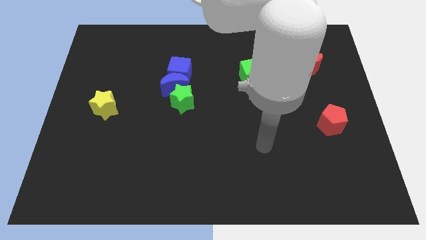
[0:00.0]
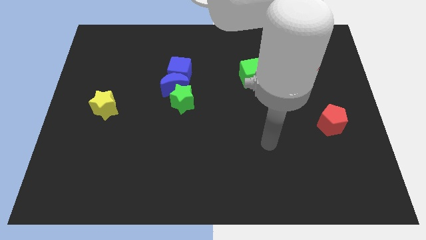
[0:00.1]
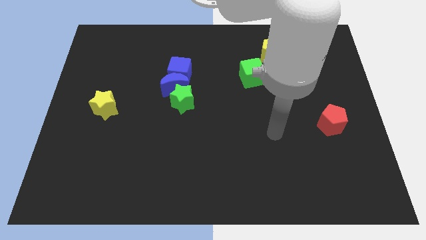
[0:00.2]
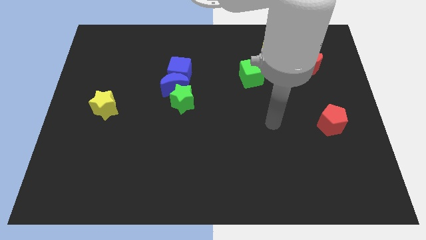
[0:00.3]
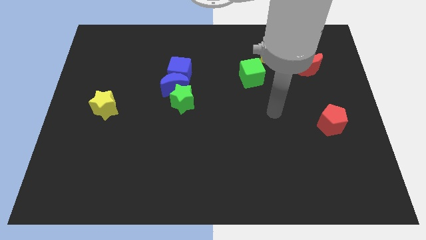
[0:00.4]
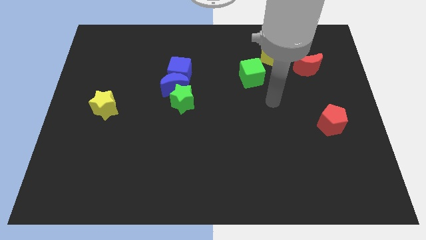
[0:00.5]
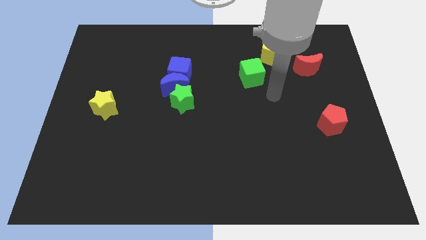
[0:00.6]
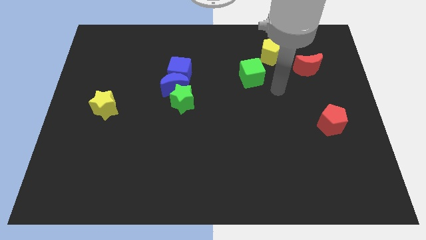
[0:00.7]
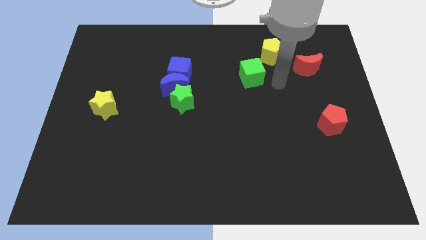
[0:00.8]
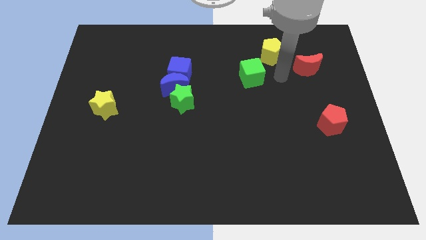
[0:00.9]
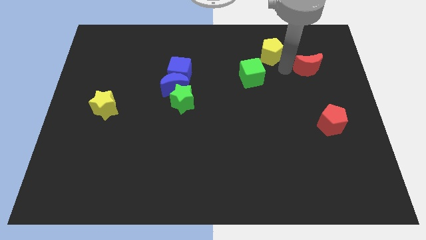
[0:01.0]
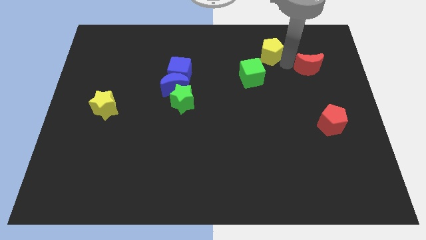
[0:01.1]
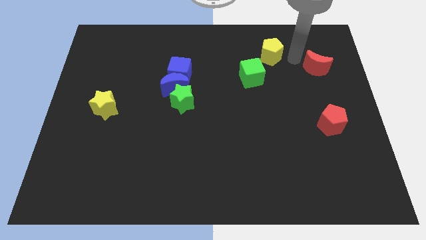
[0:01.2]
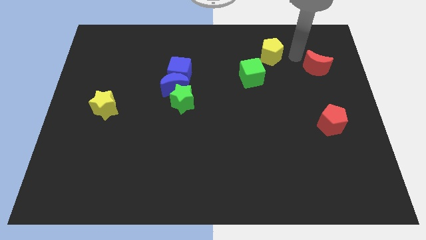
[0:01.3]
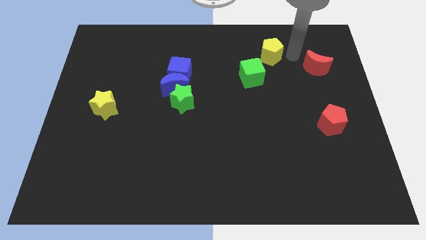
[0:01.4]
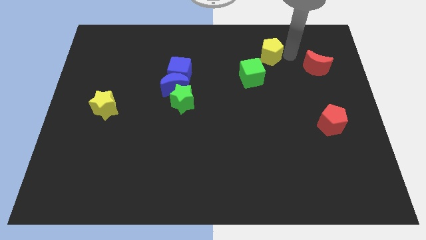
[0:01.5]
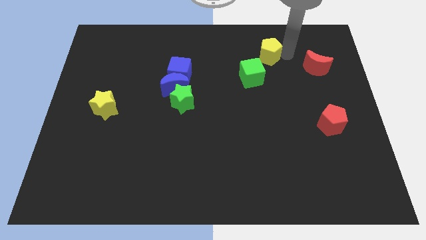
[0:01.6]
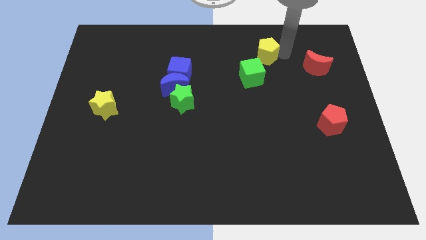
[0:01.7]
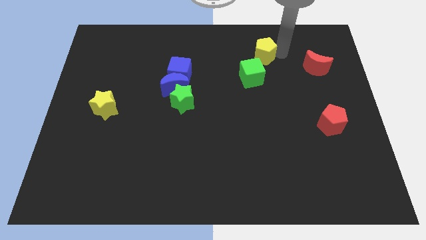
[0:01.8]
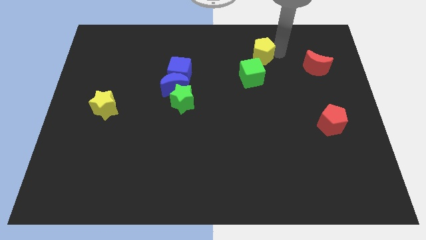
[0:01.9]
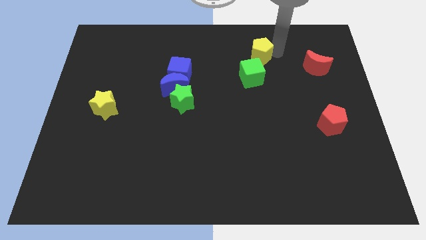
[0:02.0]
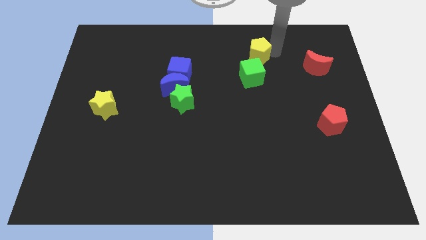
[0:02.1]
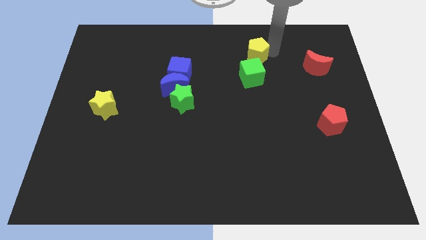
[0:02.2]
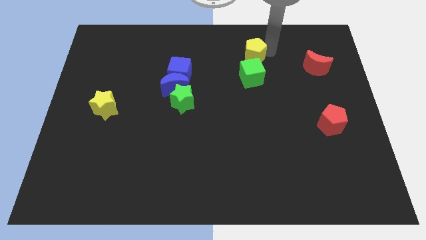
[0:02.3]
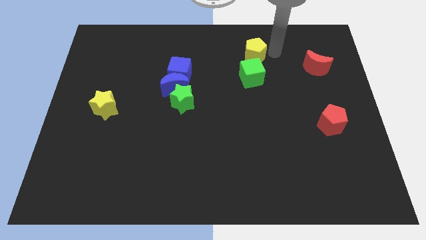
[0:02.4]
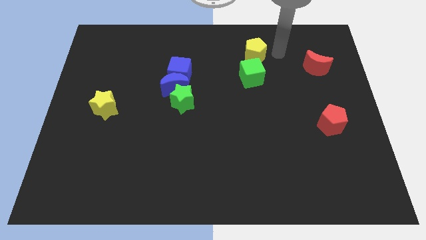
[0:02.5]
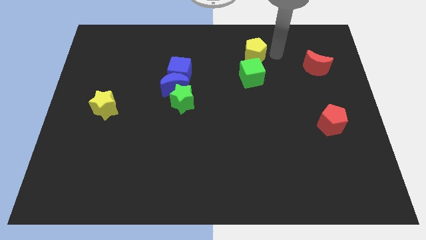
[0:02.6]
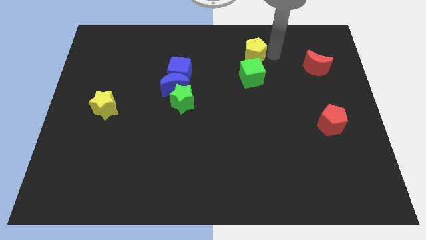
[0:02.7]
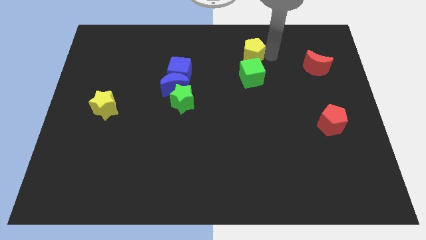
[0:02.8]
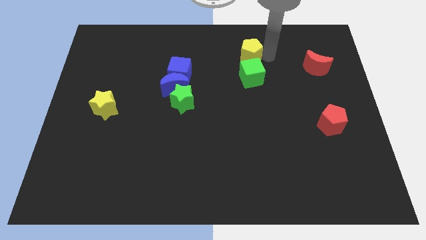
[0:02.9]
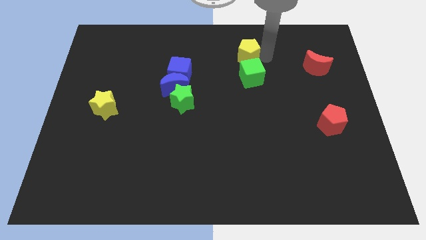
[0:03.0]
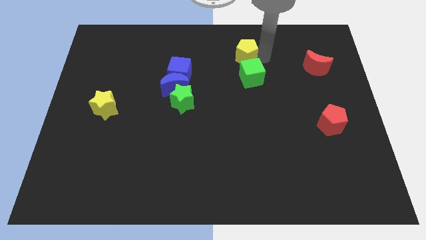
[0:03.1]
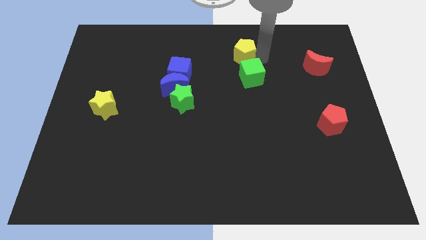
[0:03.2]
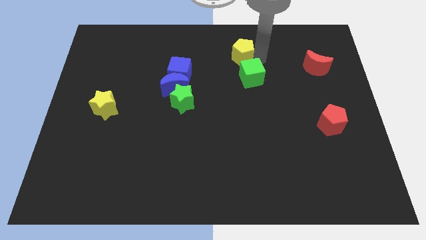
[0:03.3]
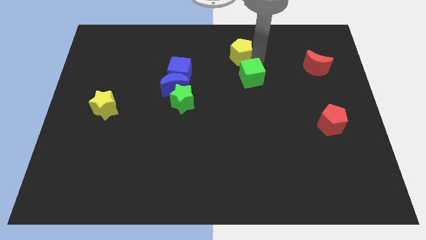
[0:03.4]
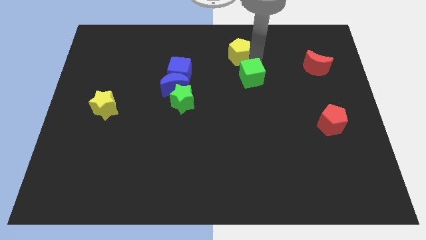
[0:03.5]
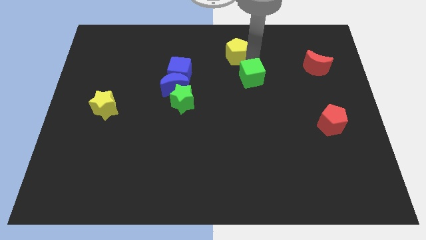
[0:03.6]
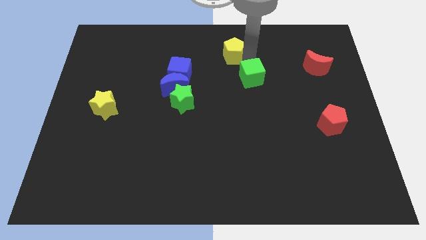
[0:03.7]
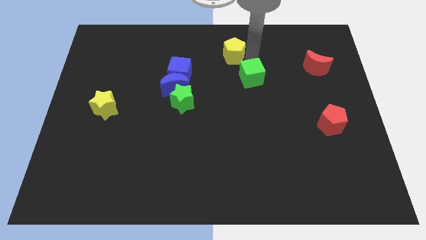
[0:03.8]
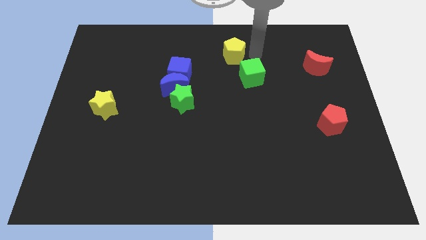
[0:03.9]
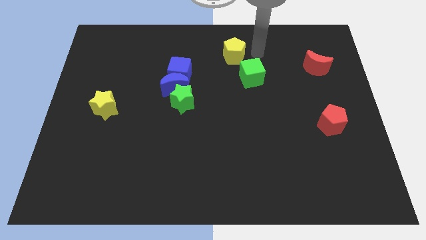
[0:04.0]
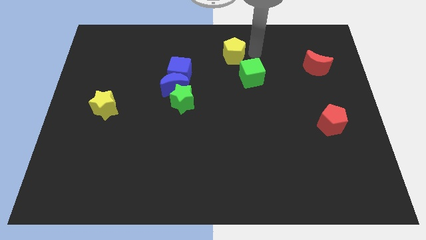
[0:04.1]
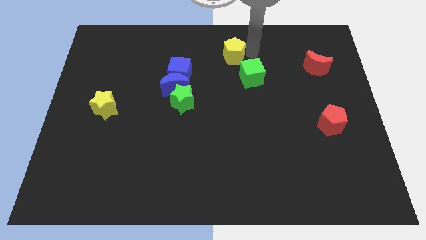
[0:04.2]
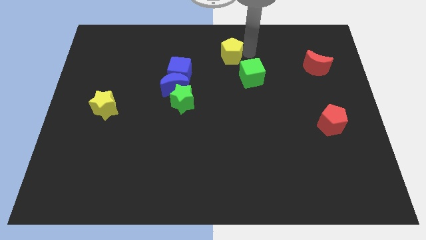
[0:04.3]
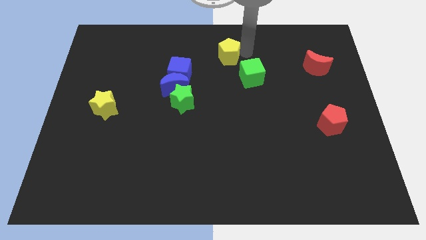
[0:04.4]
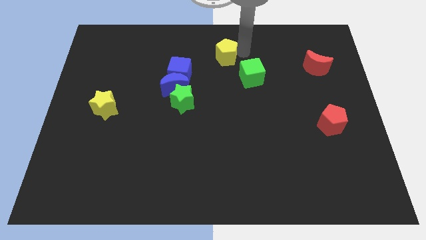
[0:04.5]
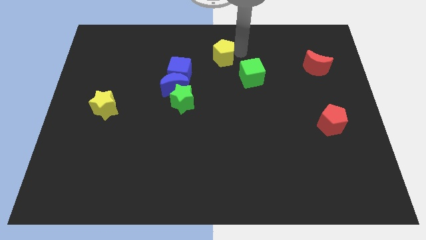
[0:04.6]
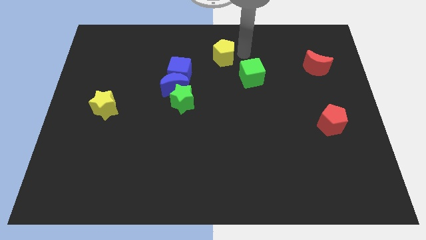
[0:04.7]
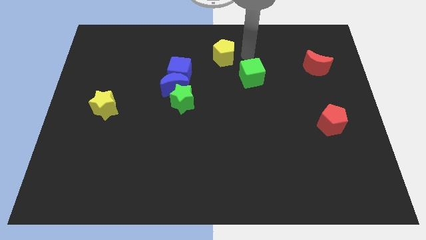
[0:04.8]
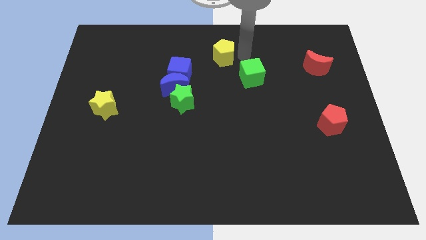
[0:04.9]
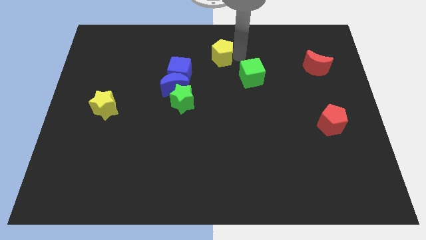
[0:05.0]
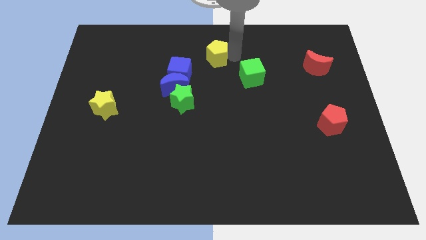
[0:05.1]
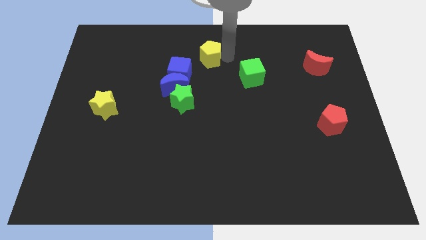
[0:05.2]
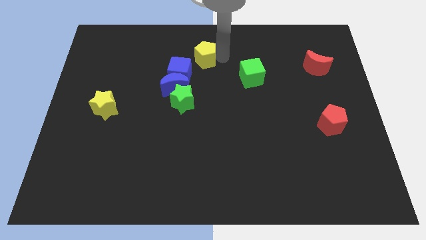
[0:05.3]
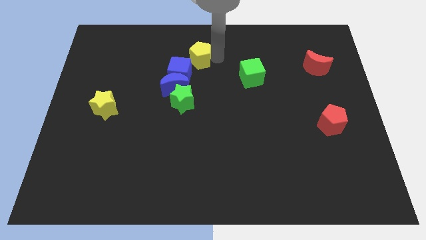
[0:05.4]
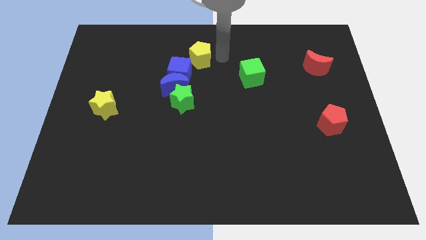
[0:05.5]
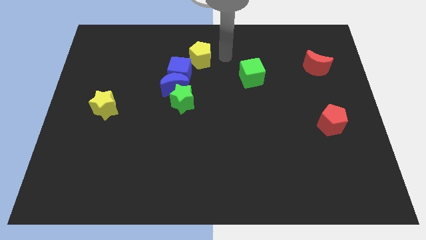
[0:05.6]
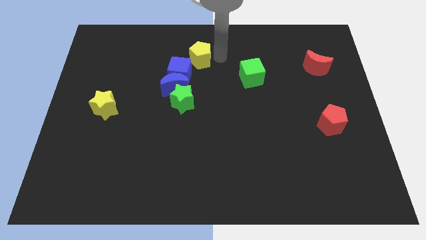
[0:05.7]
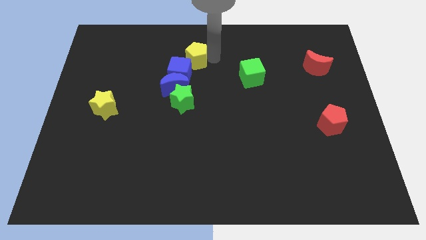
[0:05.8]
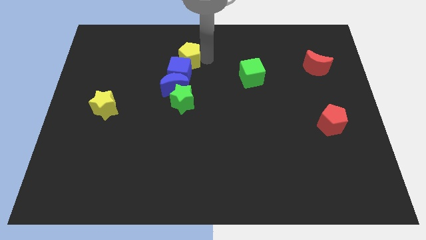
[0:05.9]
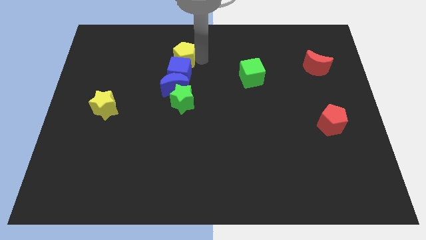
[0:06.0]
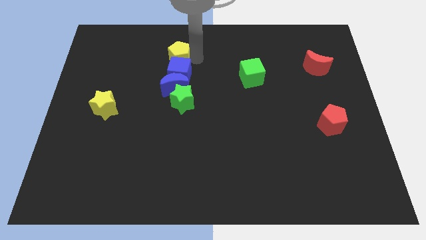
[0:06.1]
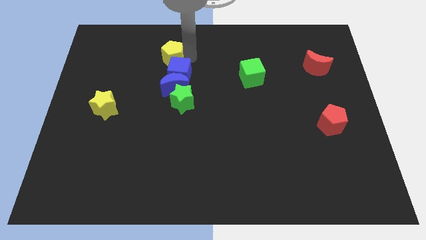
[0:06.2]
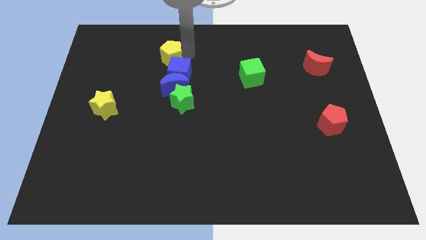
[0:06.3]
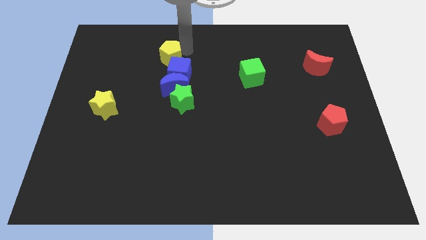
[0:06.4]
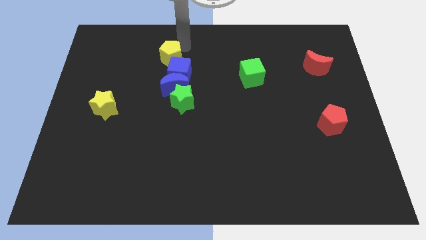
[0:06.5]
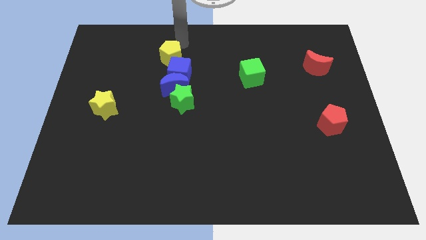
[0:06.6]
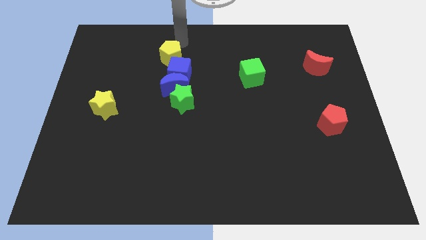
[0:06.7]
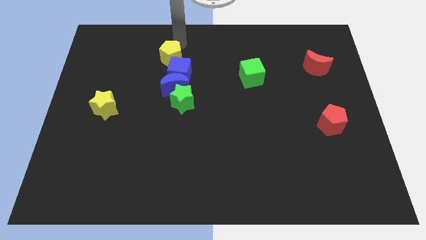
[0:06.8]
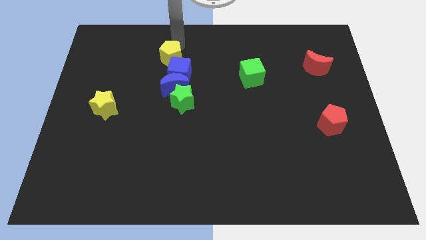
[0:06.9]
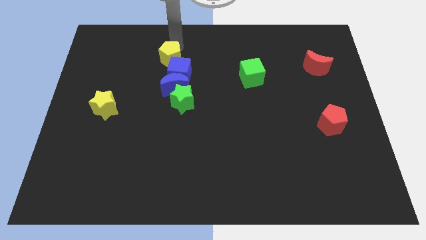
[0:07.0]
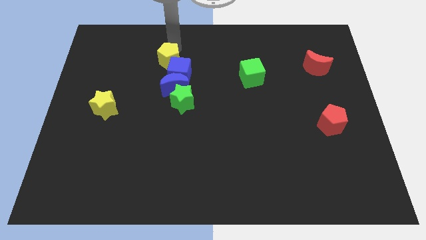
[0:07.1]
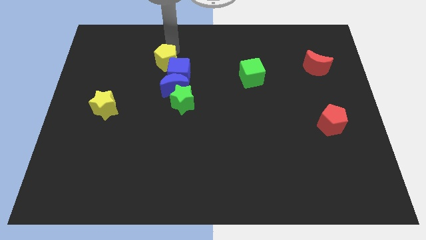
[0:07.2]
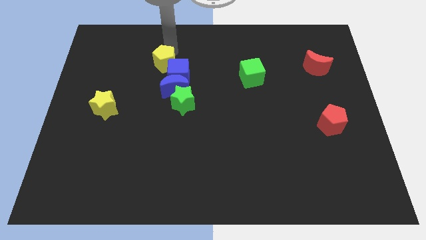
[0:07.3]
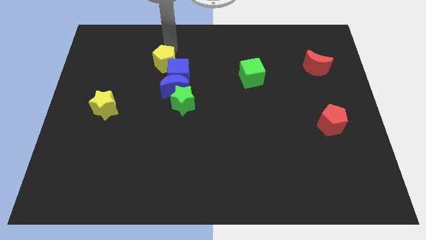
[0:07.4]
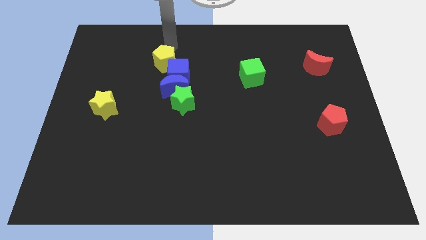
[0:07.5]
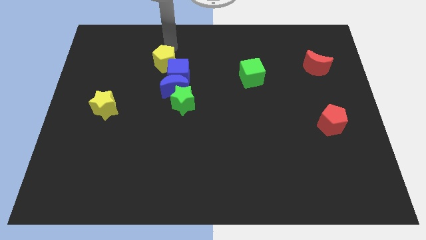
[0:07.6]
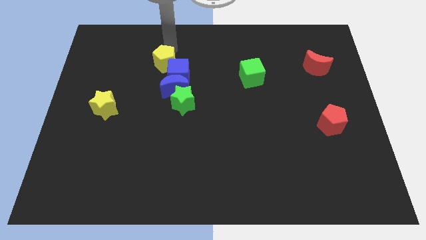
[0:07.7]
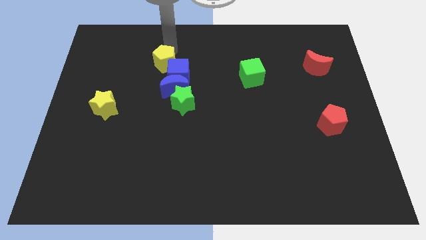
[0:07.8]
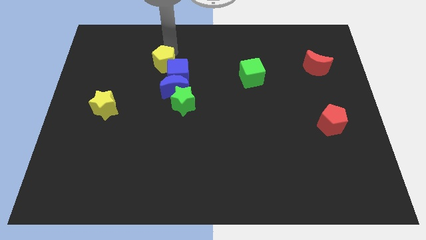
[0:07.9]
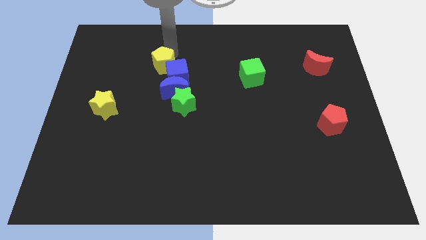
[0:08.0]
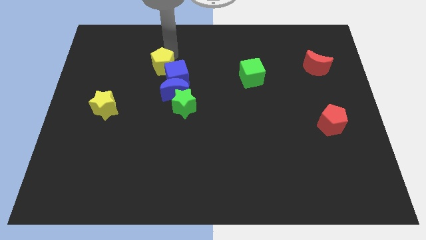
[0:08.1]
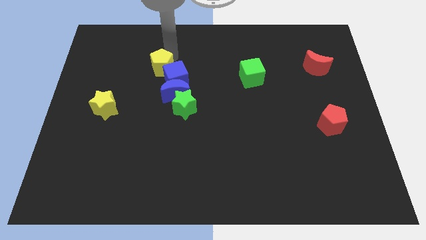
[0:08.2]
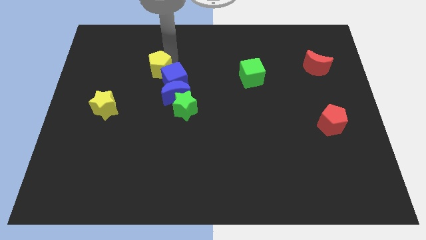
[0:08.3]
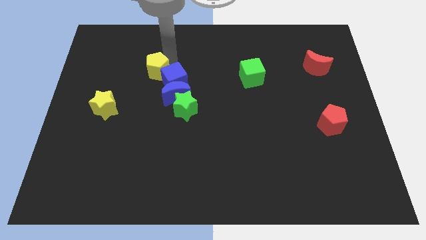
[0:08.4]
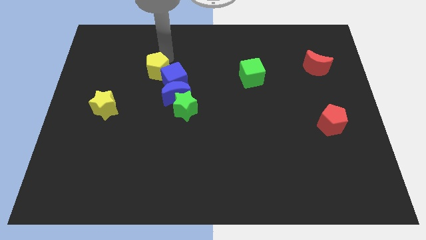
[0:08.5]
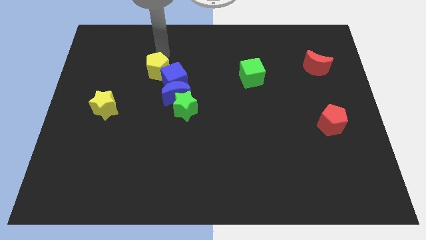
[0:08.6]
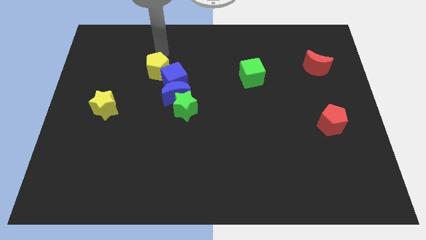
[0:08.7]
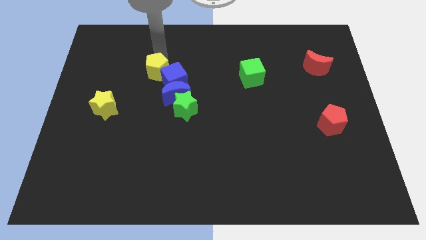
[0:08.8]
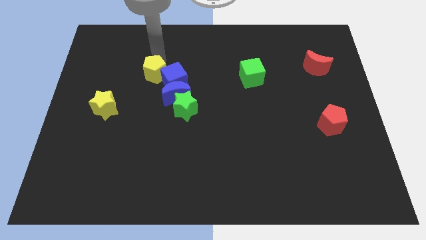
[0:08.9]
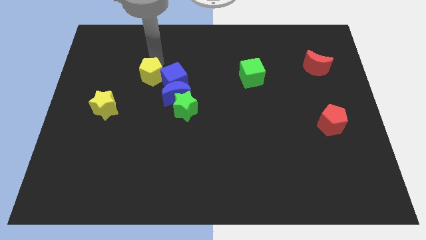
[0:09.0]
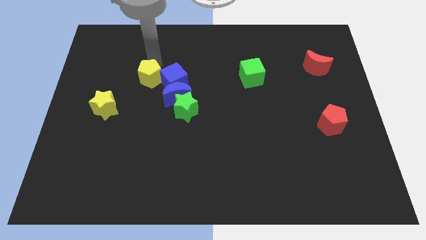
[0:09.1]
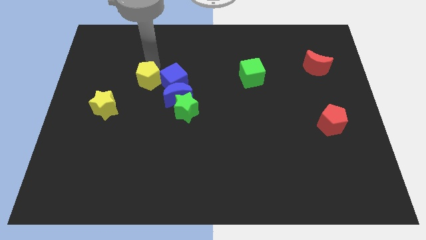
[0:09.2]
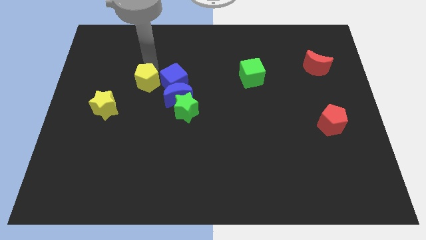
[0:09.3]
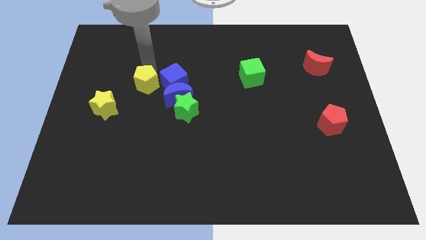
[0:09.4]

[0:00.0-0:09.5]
put the yellow pentagon diagonally down and to the left of the blue cube
